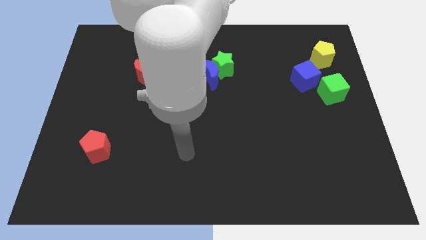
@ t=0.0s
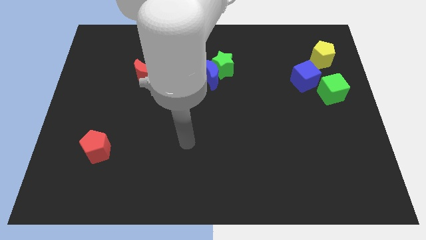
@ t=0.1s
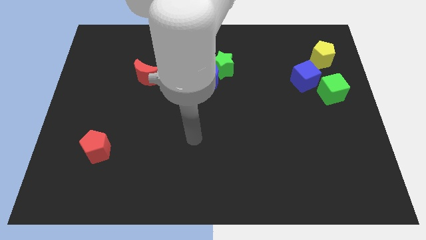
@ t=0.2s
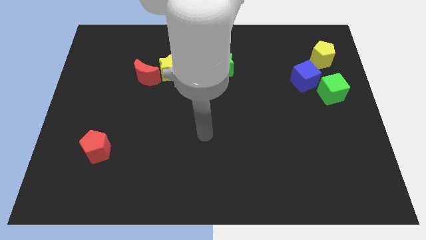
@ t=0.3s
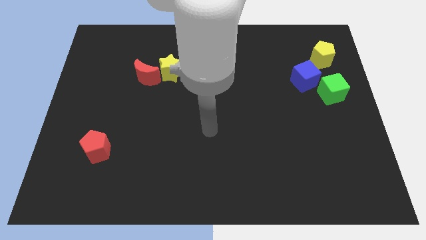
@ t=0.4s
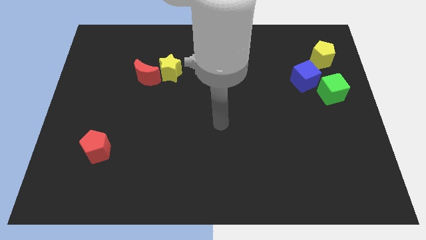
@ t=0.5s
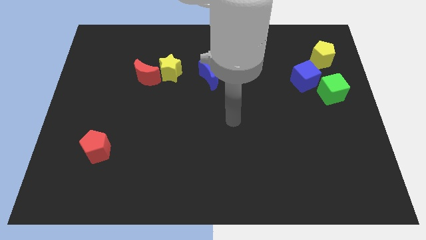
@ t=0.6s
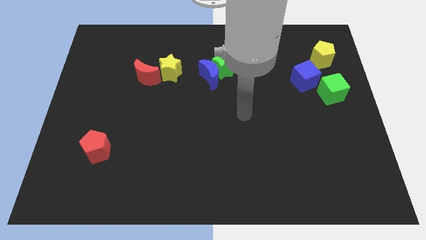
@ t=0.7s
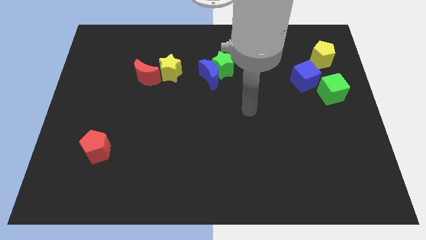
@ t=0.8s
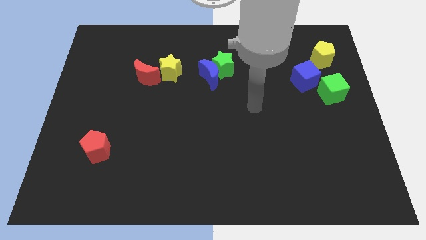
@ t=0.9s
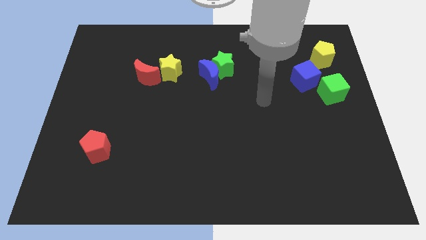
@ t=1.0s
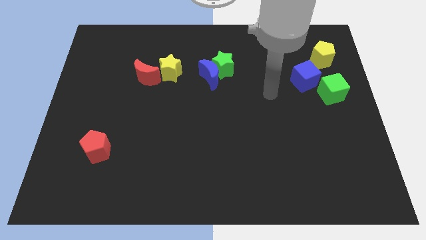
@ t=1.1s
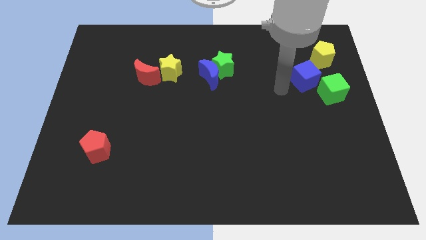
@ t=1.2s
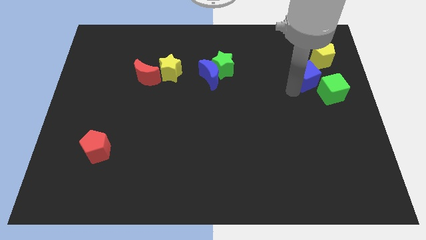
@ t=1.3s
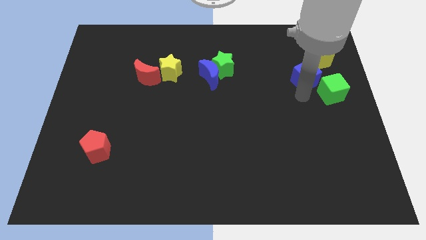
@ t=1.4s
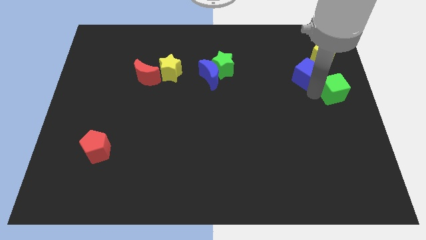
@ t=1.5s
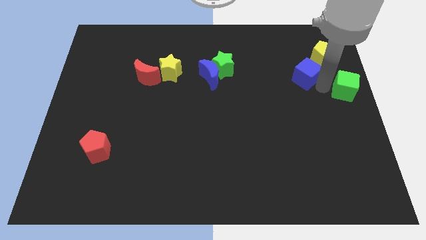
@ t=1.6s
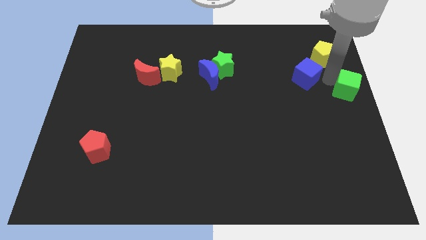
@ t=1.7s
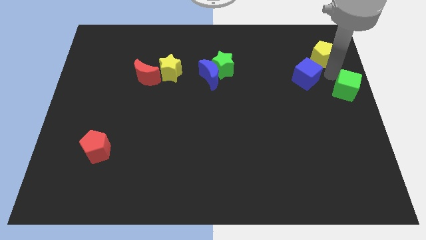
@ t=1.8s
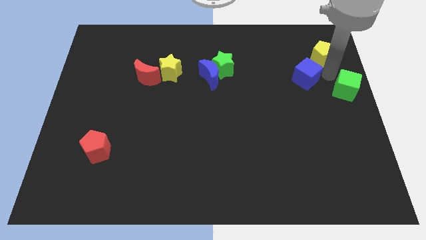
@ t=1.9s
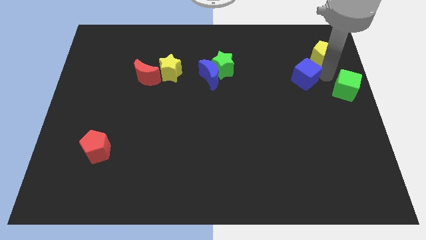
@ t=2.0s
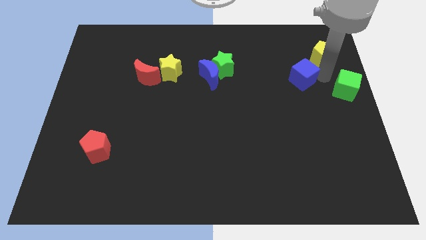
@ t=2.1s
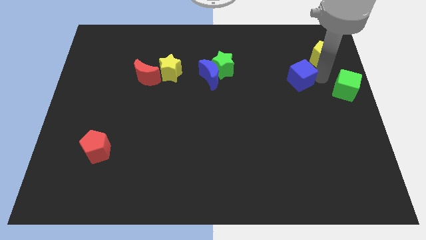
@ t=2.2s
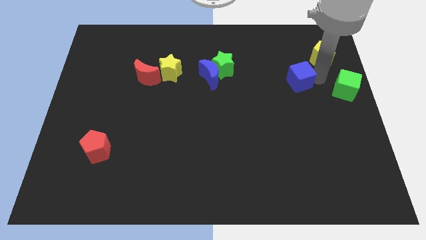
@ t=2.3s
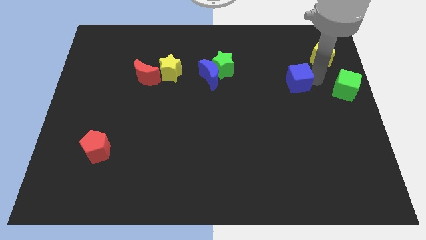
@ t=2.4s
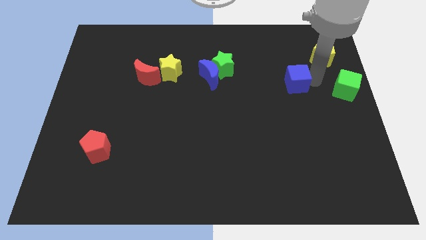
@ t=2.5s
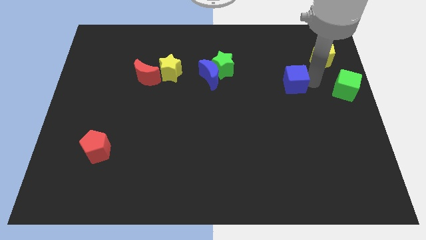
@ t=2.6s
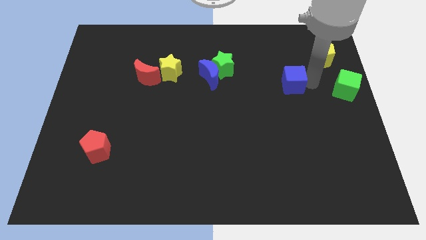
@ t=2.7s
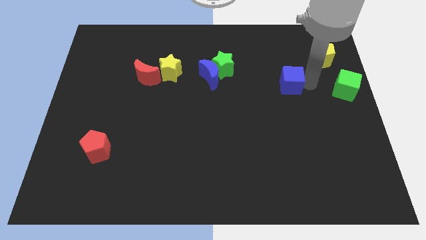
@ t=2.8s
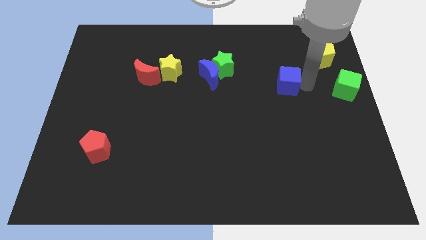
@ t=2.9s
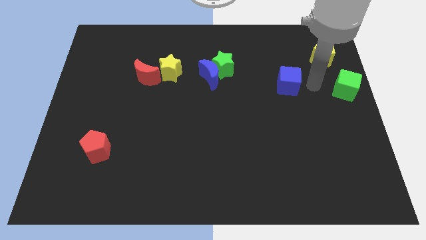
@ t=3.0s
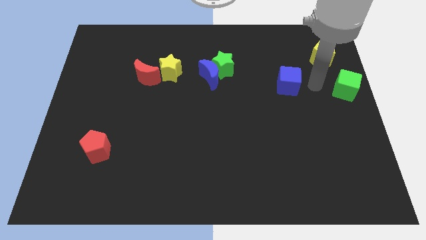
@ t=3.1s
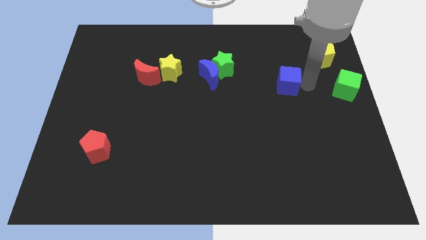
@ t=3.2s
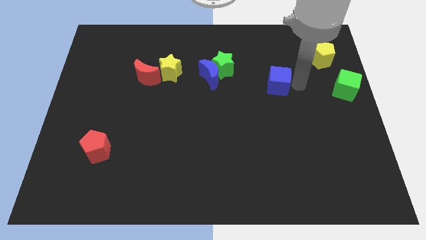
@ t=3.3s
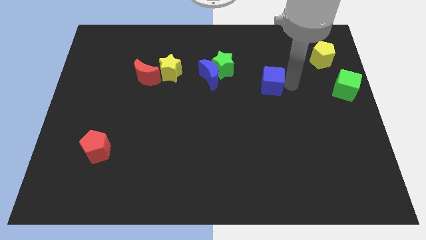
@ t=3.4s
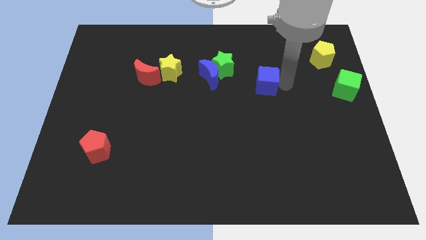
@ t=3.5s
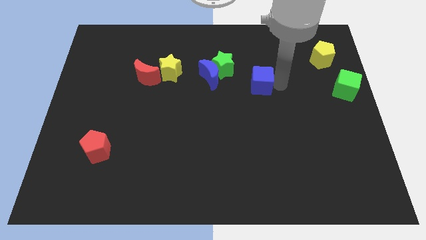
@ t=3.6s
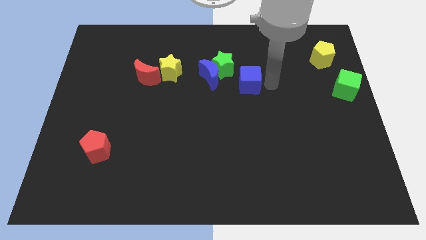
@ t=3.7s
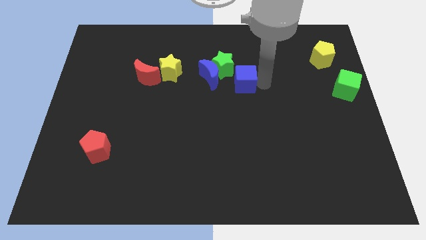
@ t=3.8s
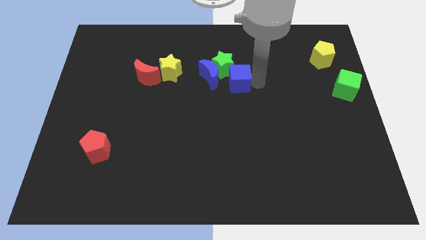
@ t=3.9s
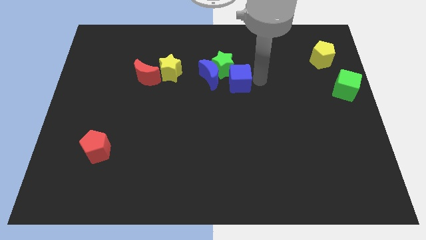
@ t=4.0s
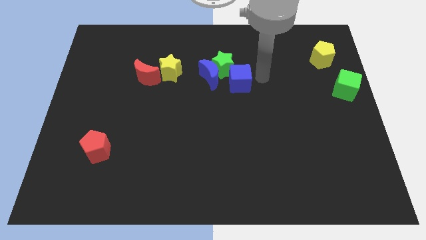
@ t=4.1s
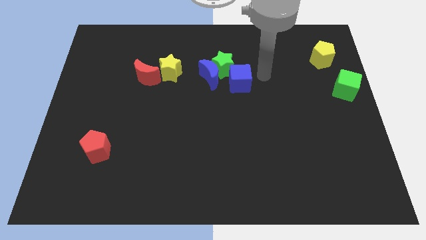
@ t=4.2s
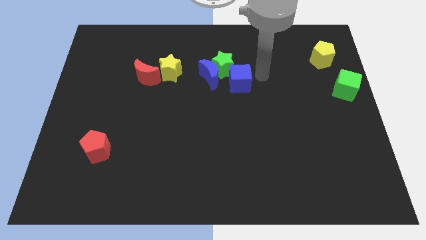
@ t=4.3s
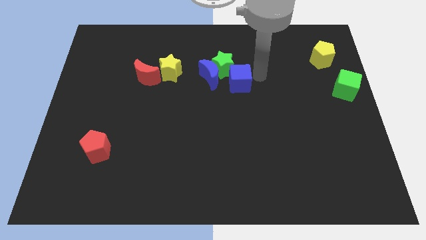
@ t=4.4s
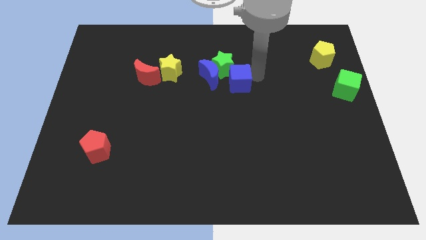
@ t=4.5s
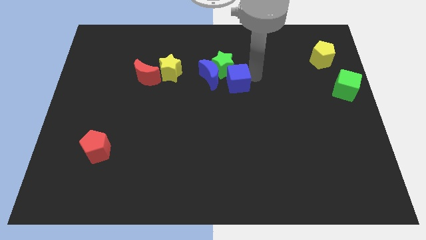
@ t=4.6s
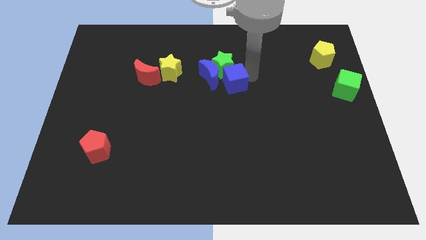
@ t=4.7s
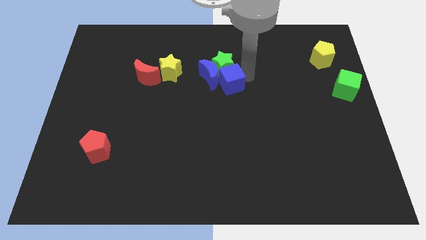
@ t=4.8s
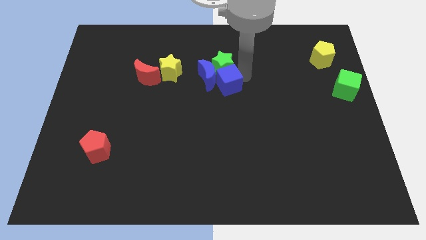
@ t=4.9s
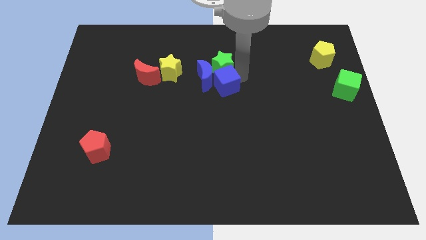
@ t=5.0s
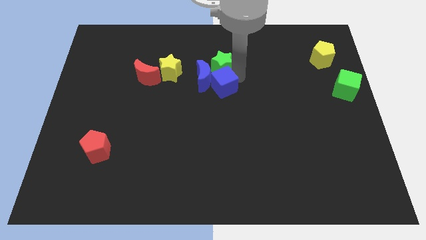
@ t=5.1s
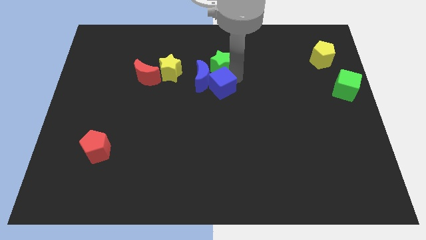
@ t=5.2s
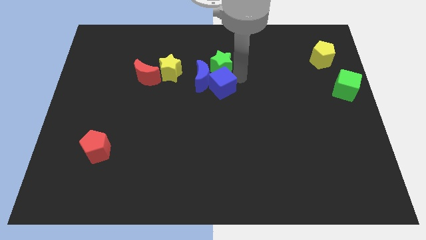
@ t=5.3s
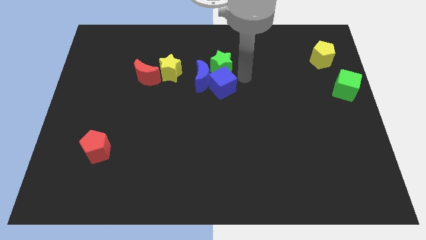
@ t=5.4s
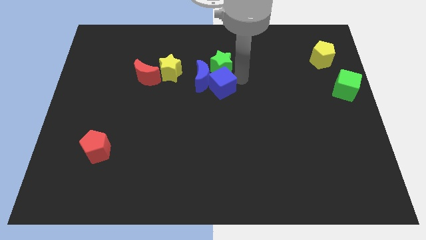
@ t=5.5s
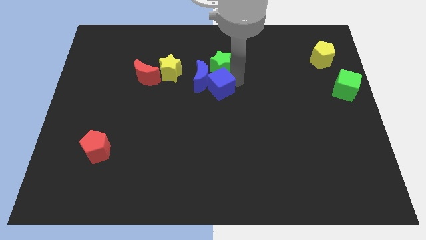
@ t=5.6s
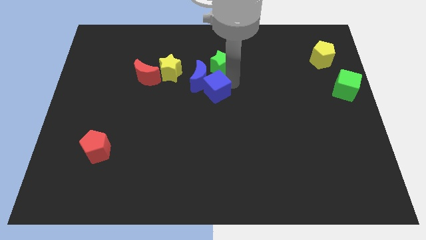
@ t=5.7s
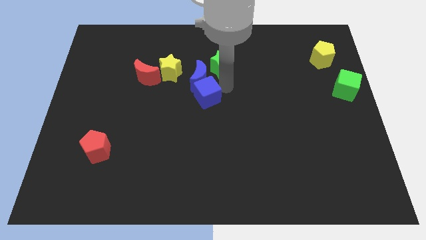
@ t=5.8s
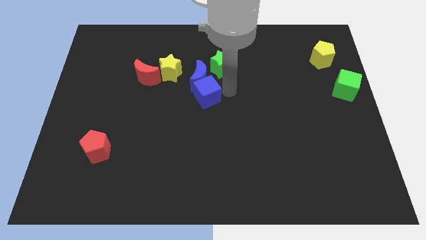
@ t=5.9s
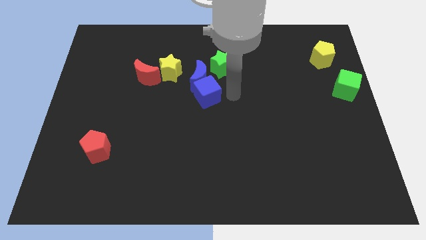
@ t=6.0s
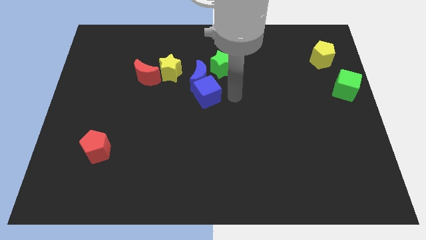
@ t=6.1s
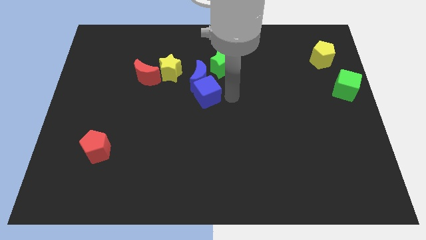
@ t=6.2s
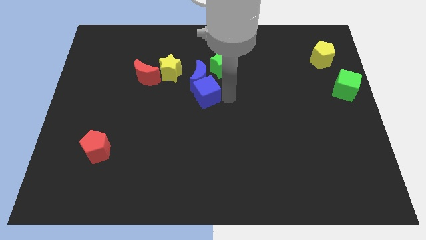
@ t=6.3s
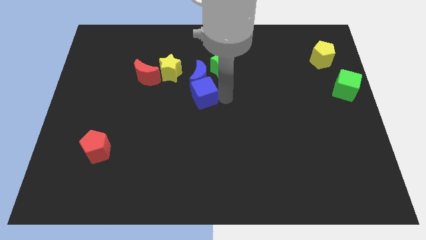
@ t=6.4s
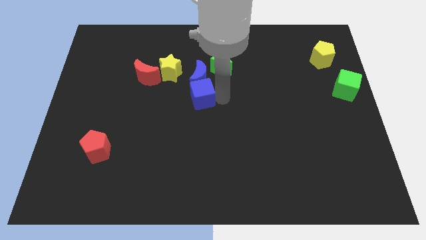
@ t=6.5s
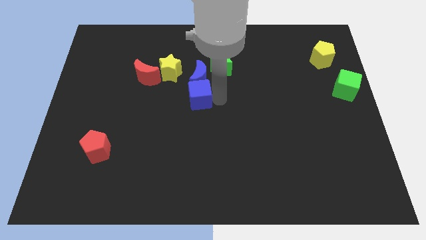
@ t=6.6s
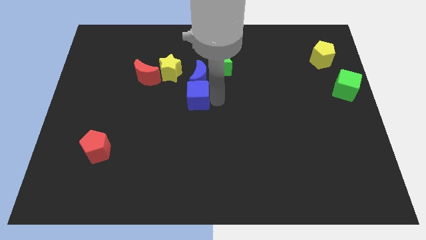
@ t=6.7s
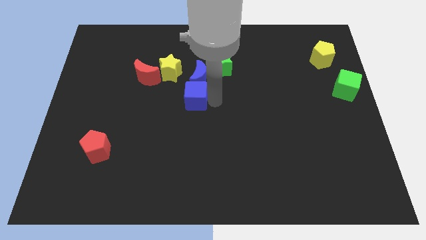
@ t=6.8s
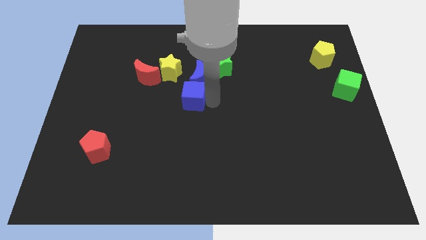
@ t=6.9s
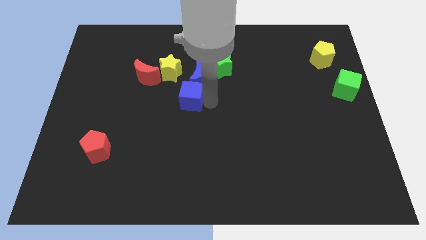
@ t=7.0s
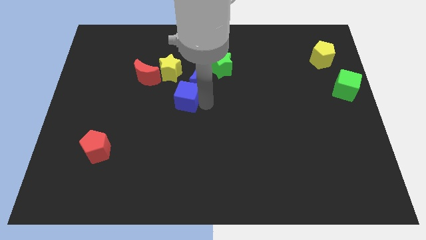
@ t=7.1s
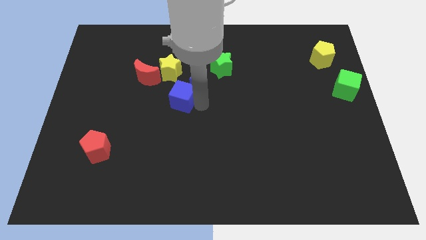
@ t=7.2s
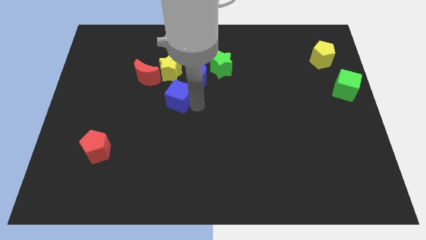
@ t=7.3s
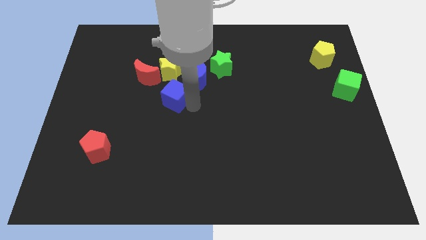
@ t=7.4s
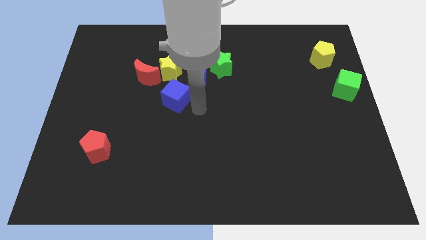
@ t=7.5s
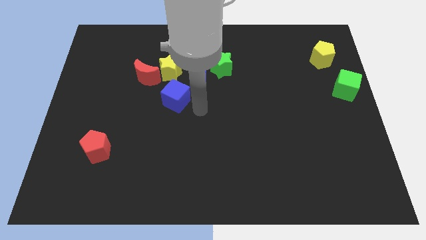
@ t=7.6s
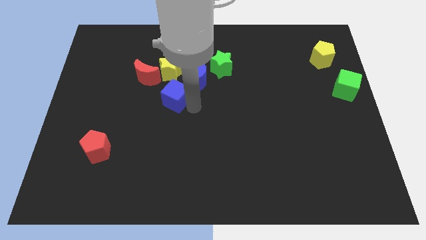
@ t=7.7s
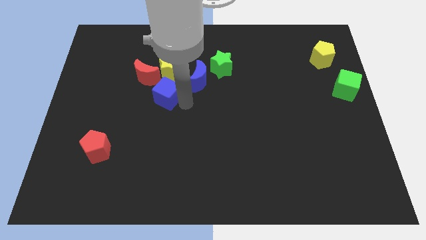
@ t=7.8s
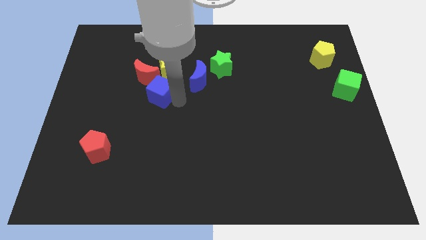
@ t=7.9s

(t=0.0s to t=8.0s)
push the blue cube to the bottom left side of the yellow star
